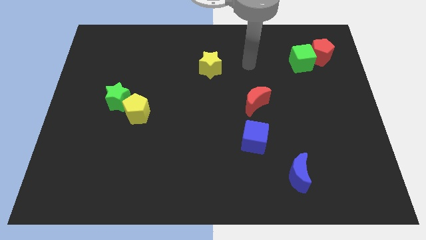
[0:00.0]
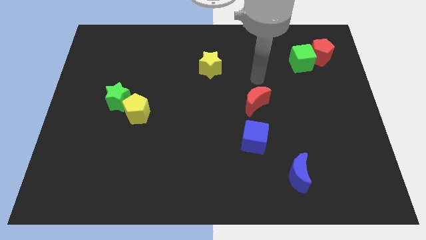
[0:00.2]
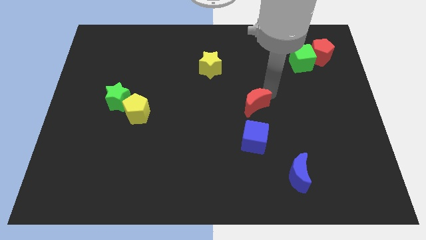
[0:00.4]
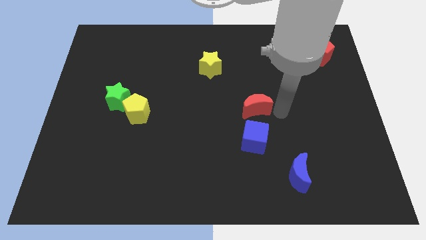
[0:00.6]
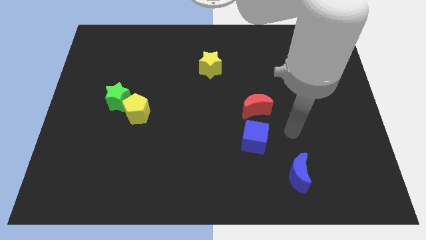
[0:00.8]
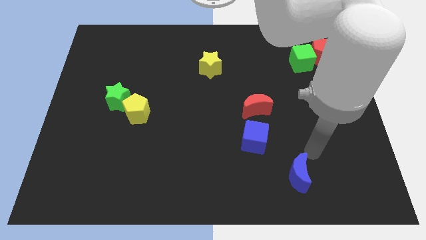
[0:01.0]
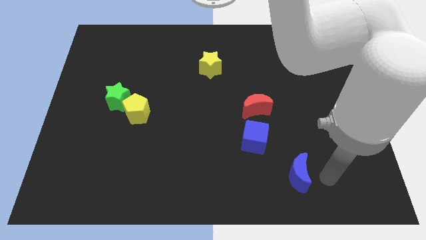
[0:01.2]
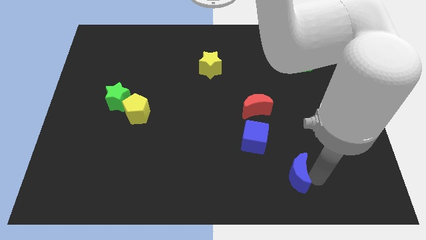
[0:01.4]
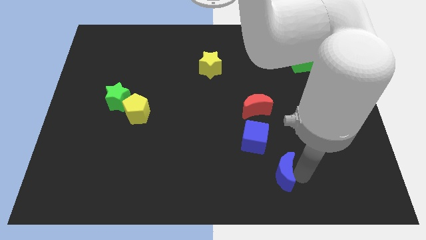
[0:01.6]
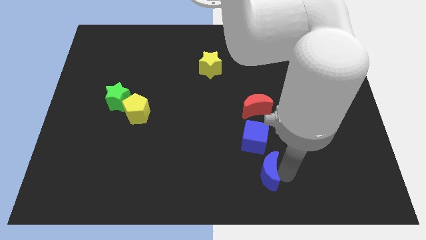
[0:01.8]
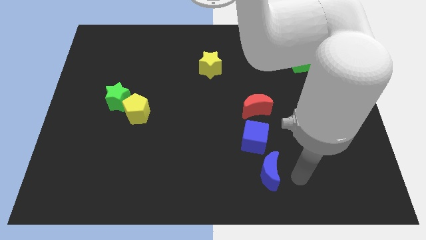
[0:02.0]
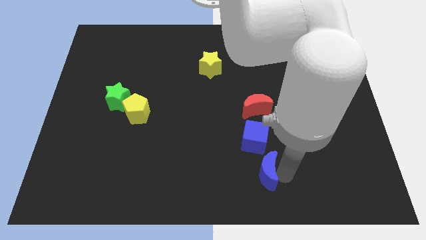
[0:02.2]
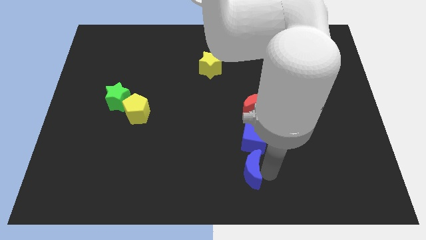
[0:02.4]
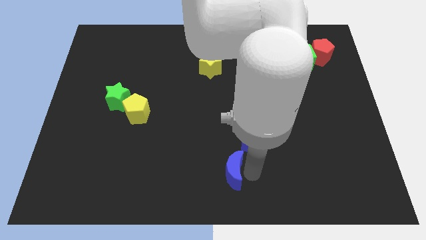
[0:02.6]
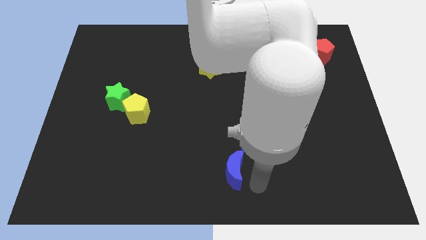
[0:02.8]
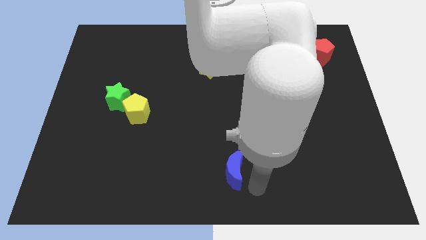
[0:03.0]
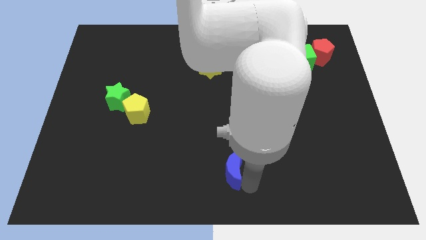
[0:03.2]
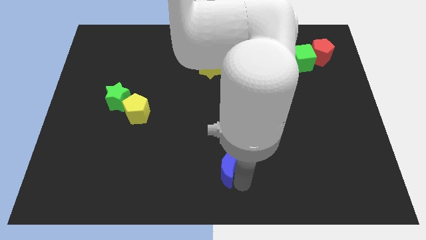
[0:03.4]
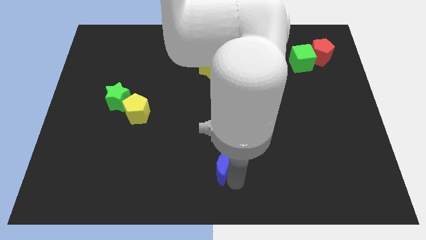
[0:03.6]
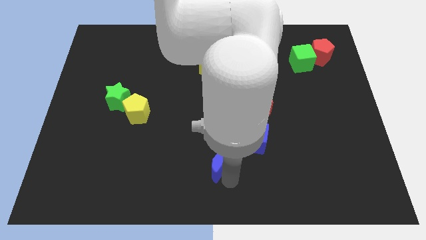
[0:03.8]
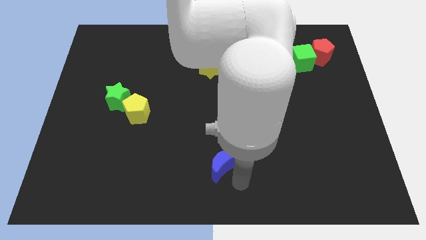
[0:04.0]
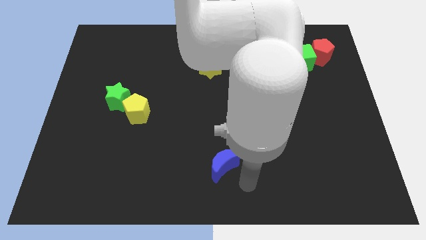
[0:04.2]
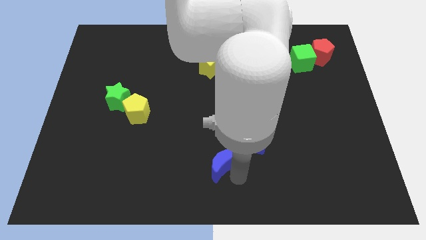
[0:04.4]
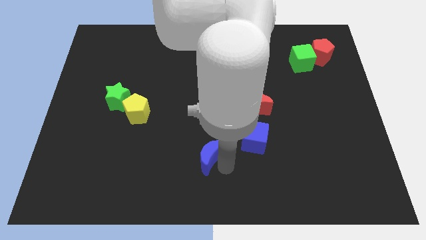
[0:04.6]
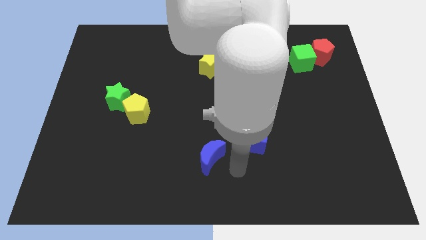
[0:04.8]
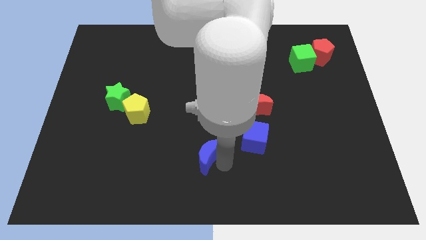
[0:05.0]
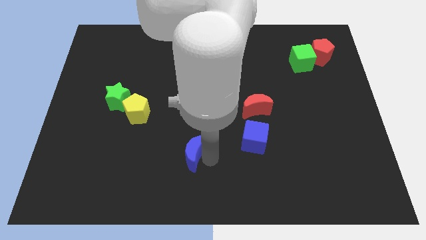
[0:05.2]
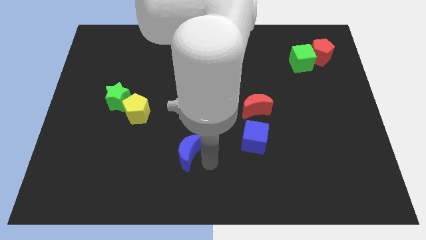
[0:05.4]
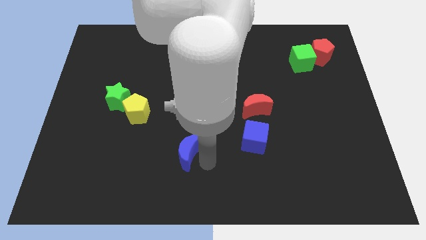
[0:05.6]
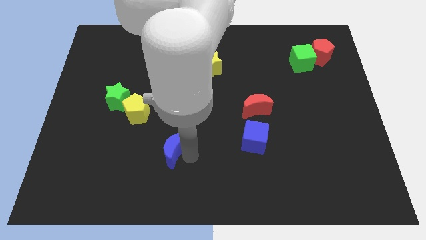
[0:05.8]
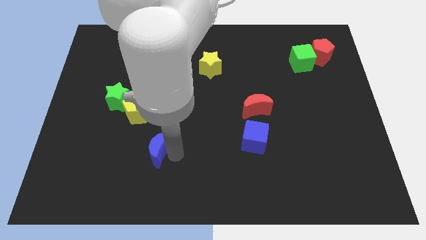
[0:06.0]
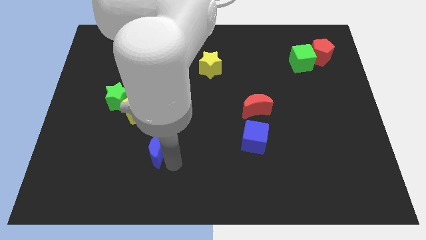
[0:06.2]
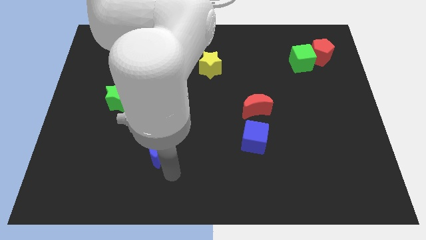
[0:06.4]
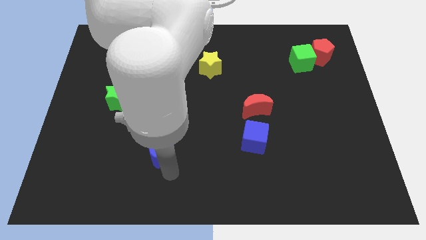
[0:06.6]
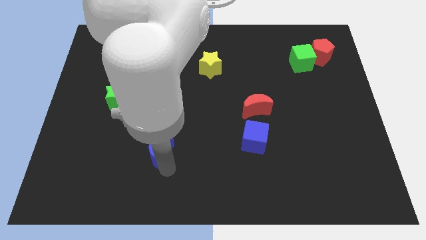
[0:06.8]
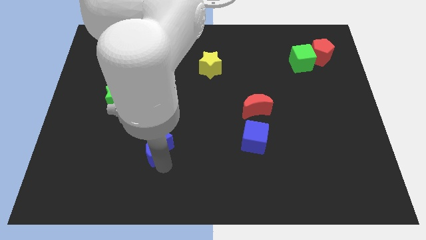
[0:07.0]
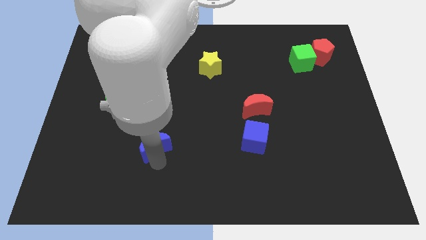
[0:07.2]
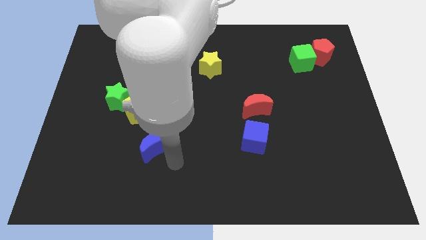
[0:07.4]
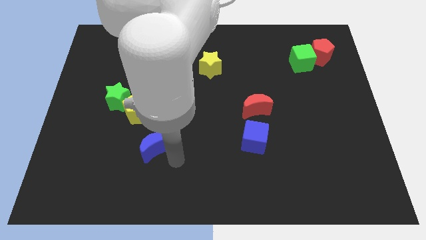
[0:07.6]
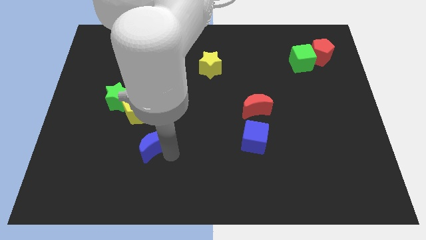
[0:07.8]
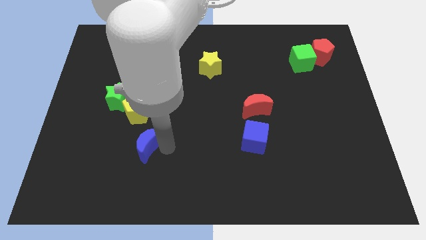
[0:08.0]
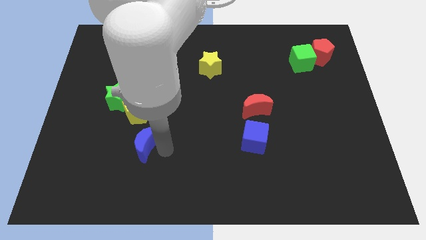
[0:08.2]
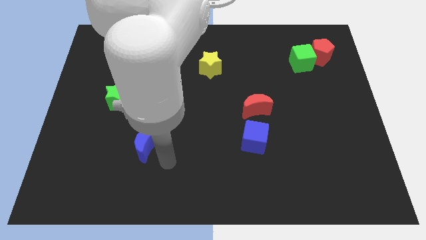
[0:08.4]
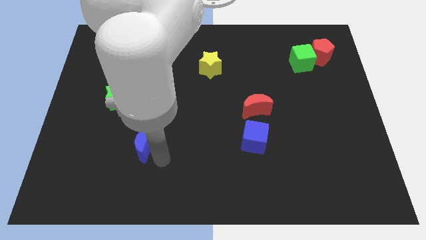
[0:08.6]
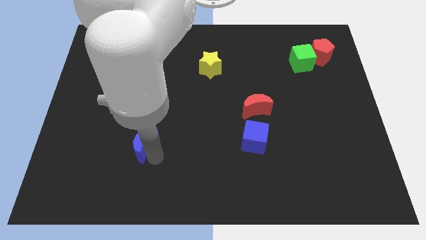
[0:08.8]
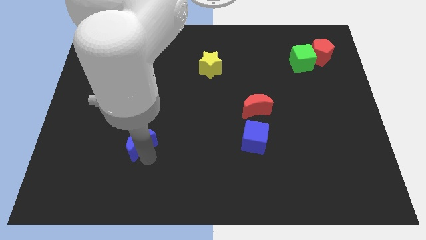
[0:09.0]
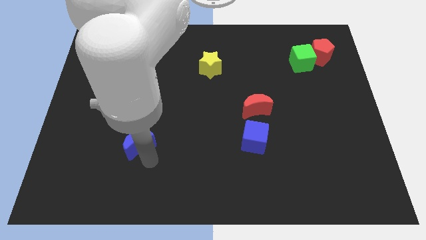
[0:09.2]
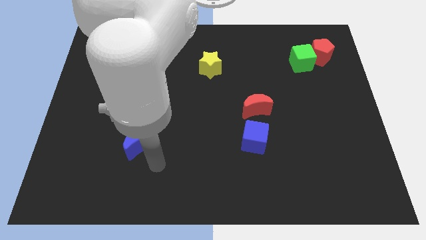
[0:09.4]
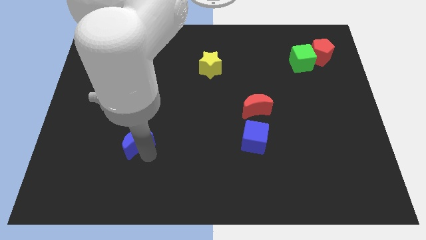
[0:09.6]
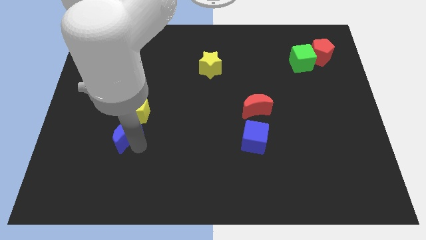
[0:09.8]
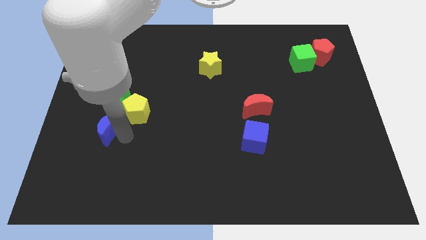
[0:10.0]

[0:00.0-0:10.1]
push the blue moon to the left of the yellow pentagon

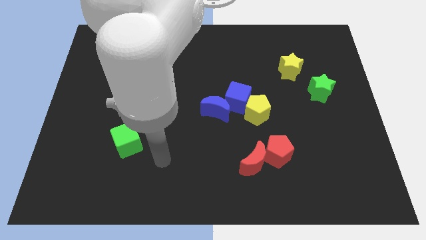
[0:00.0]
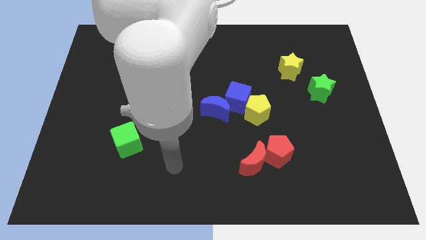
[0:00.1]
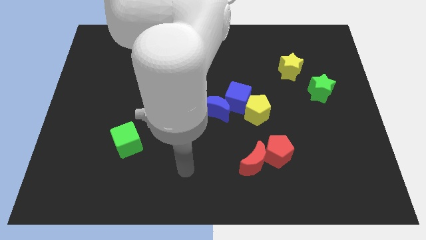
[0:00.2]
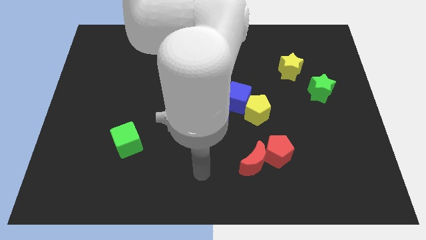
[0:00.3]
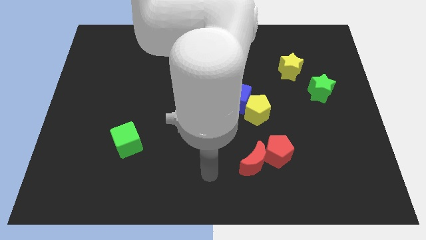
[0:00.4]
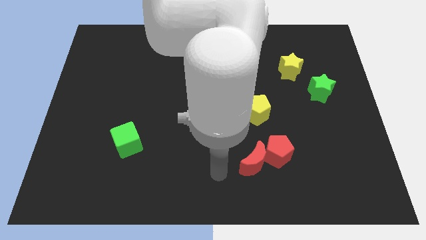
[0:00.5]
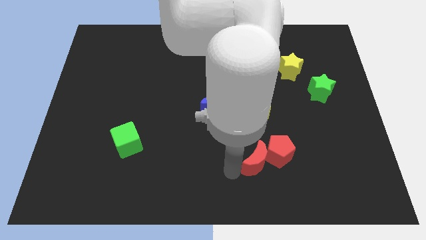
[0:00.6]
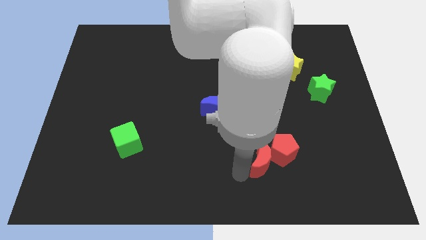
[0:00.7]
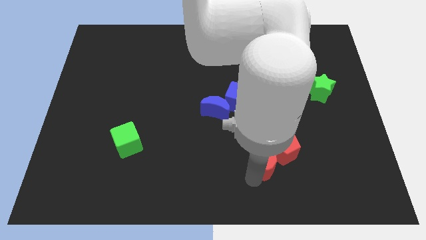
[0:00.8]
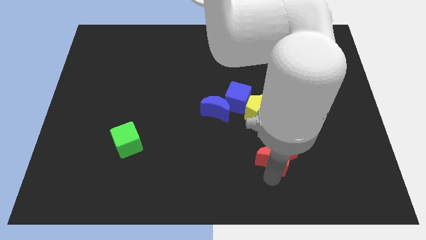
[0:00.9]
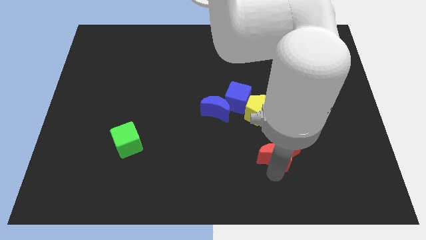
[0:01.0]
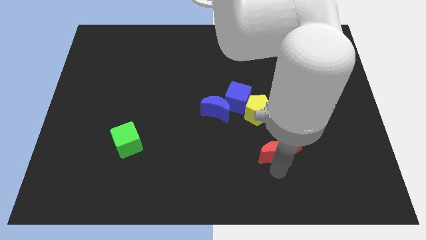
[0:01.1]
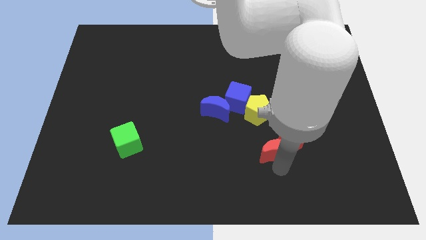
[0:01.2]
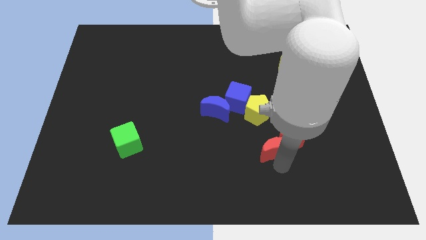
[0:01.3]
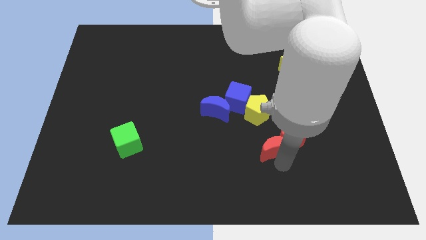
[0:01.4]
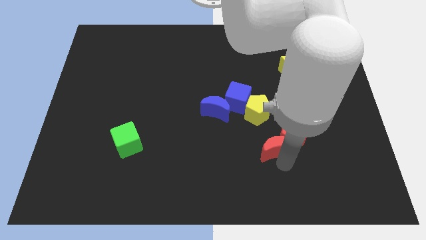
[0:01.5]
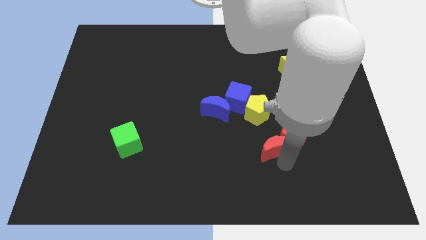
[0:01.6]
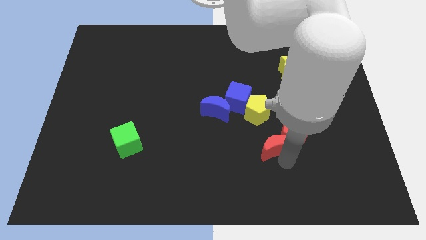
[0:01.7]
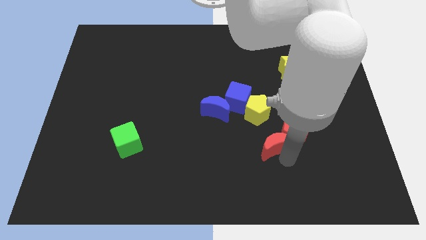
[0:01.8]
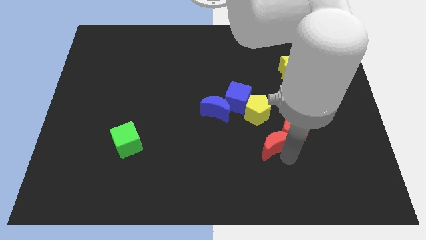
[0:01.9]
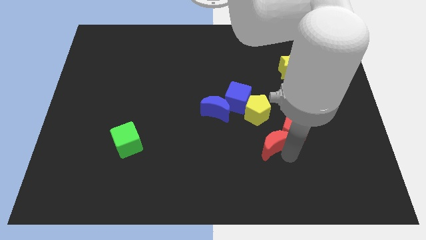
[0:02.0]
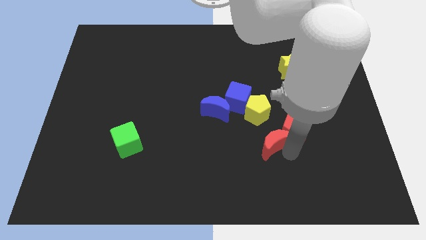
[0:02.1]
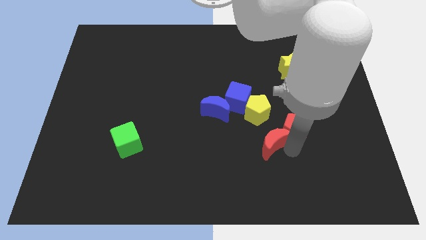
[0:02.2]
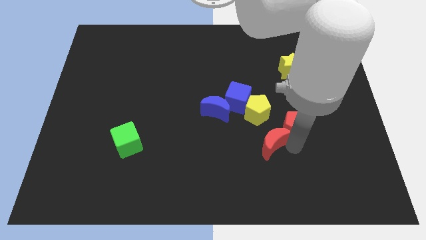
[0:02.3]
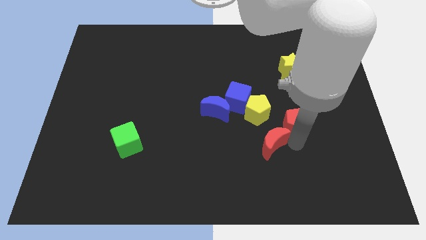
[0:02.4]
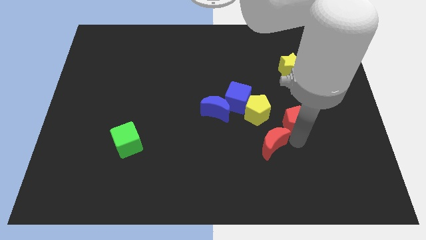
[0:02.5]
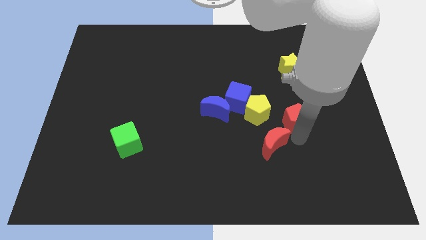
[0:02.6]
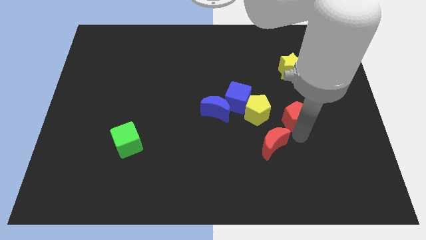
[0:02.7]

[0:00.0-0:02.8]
slide the red pentagon to the bottom side of the yellow star
